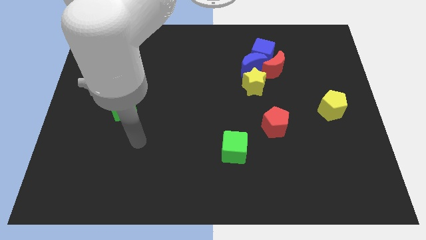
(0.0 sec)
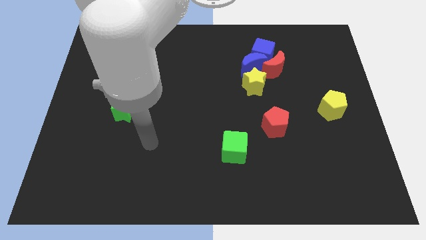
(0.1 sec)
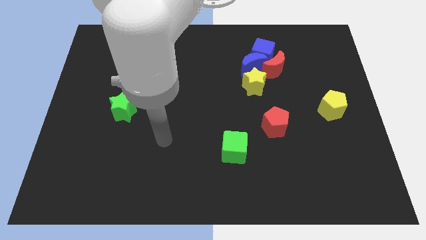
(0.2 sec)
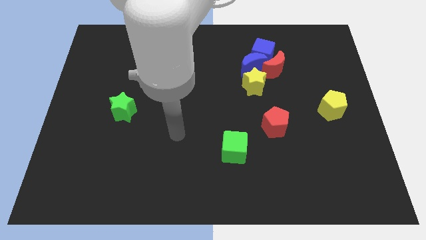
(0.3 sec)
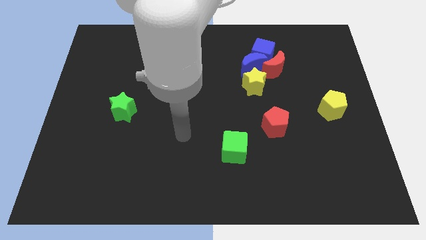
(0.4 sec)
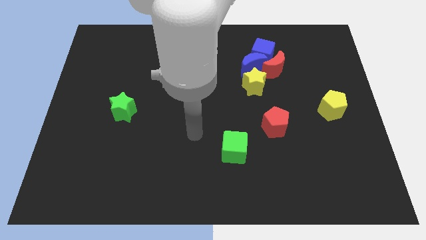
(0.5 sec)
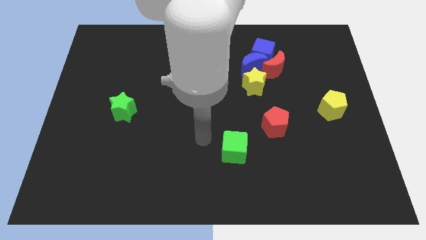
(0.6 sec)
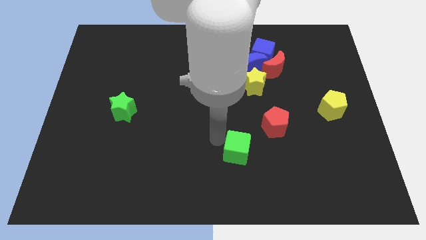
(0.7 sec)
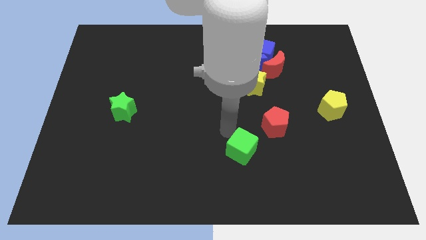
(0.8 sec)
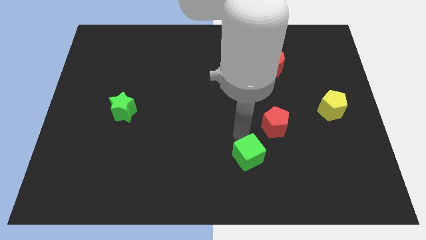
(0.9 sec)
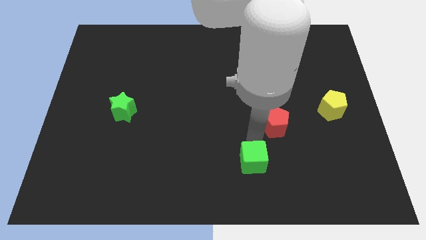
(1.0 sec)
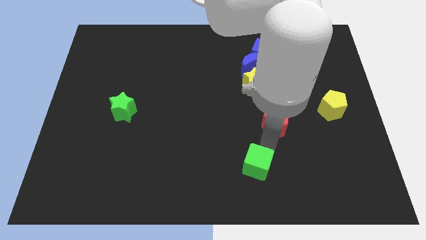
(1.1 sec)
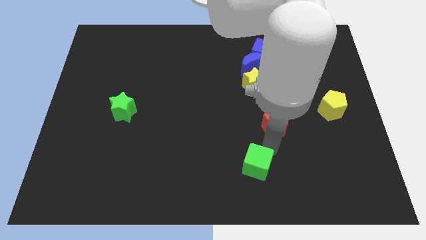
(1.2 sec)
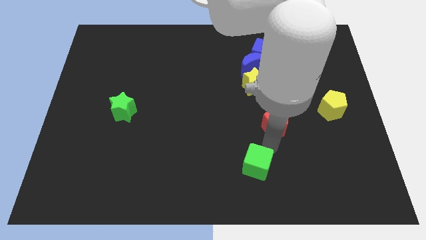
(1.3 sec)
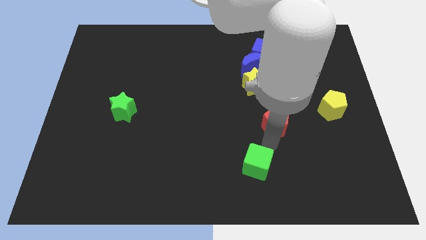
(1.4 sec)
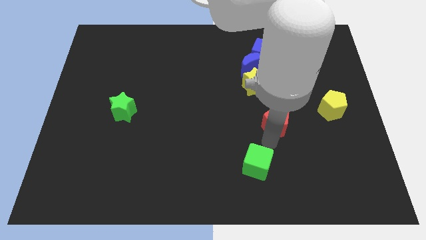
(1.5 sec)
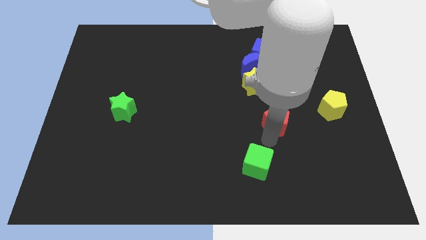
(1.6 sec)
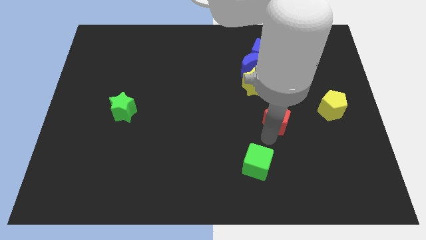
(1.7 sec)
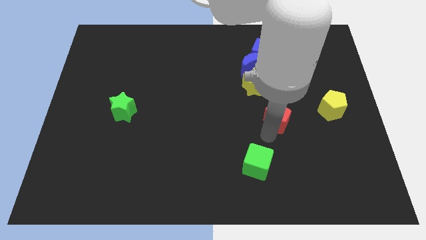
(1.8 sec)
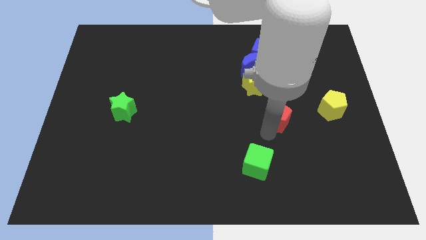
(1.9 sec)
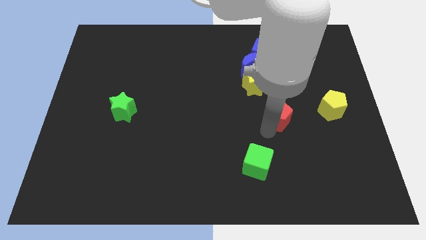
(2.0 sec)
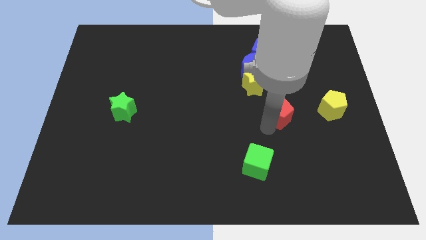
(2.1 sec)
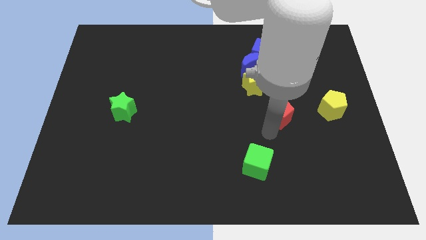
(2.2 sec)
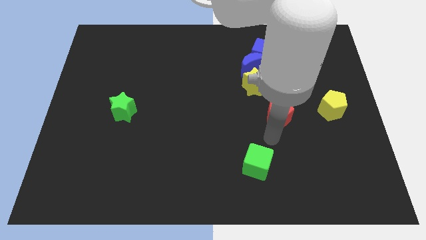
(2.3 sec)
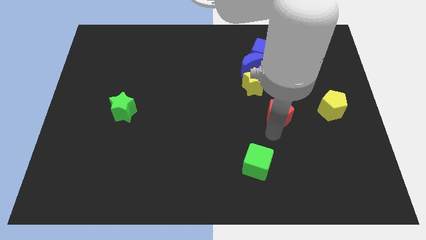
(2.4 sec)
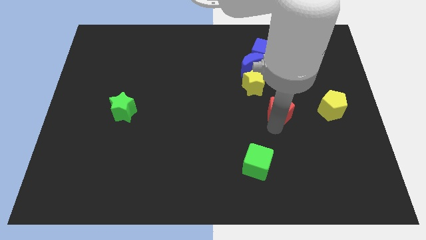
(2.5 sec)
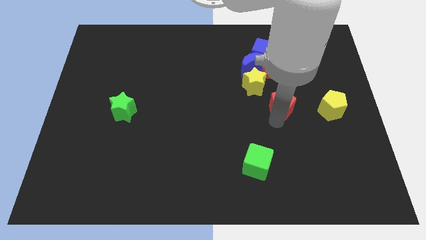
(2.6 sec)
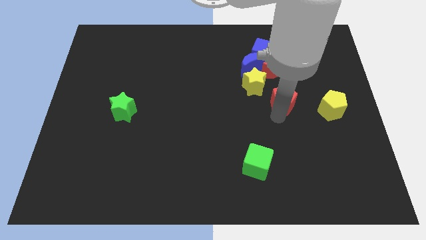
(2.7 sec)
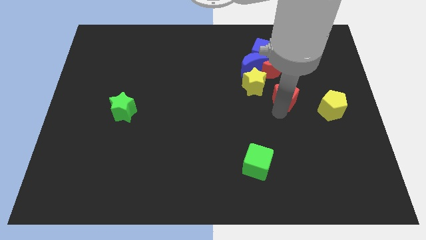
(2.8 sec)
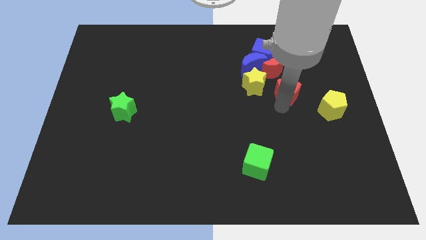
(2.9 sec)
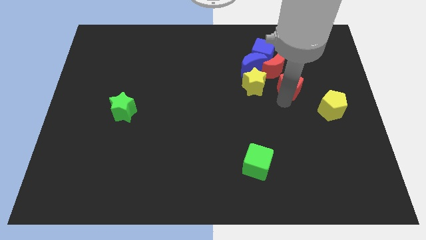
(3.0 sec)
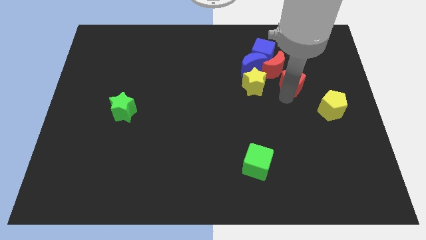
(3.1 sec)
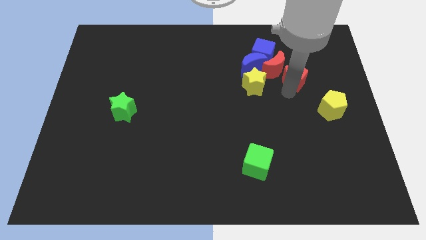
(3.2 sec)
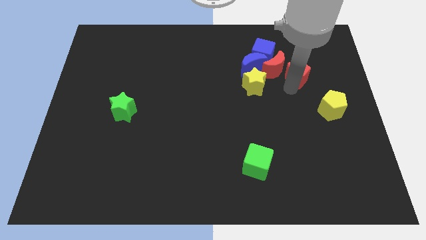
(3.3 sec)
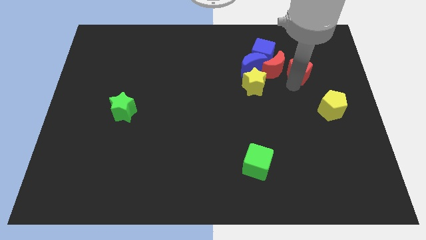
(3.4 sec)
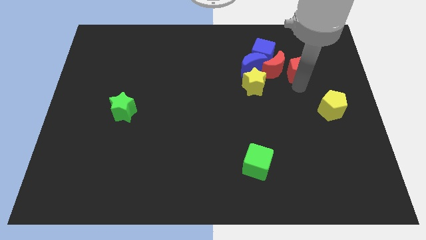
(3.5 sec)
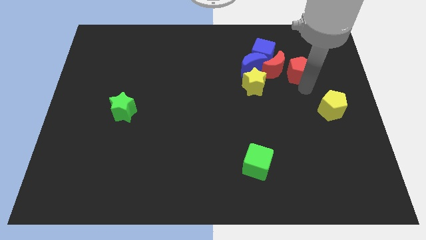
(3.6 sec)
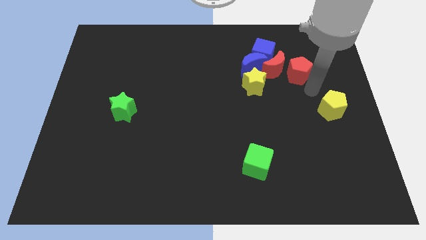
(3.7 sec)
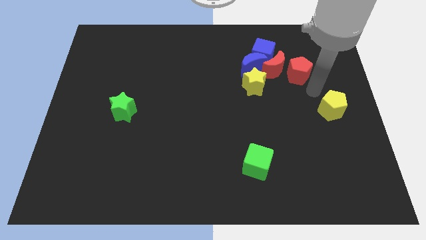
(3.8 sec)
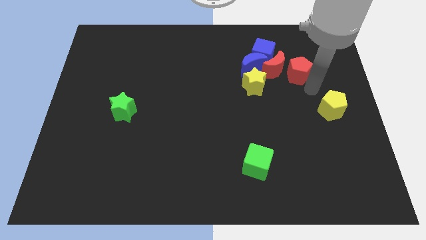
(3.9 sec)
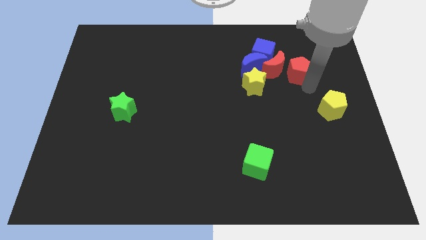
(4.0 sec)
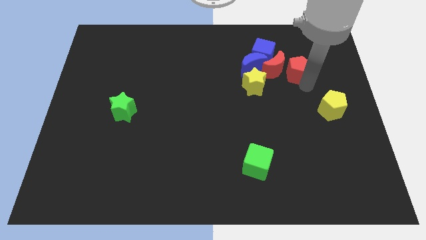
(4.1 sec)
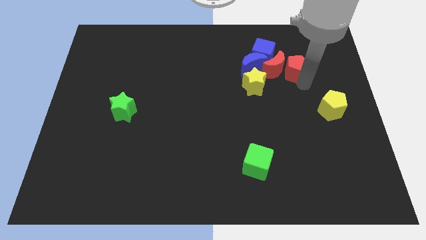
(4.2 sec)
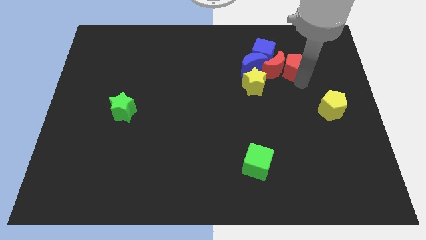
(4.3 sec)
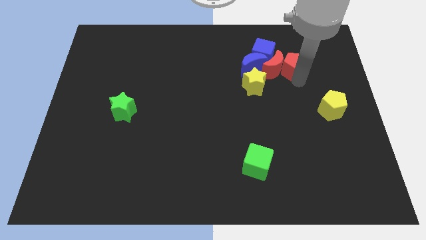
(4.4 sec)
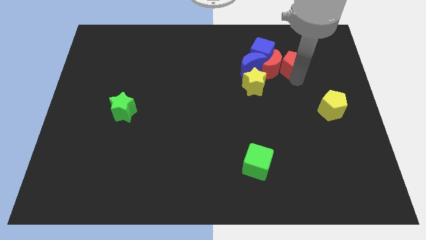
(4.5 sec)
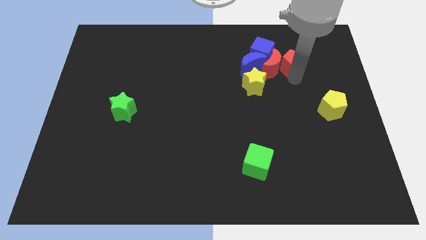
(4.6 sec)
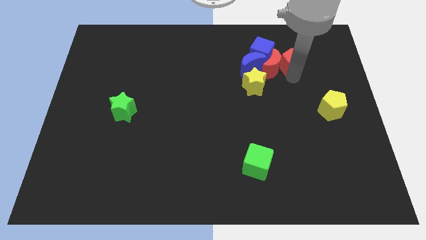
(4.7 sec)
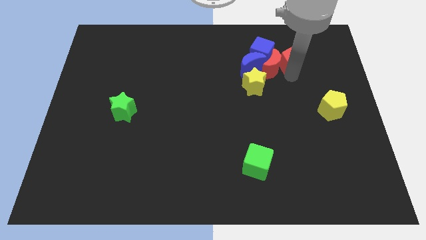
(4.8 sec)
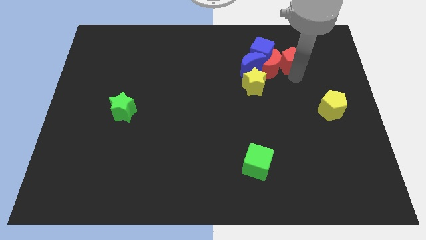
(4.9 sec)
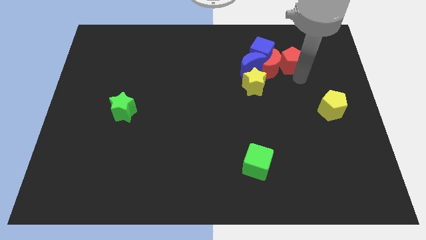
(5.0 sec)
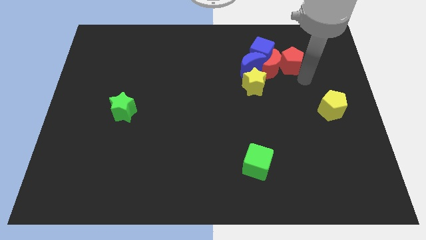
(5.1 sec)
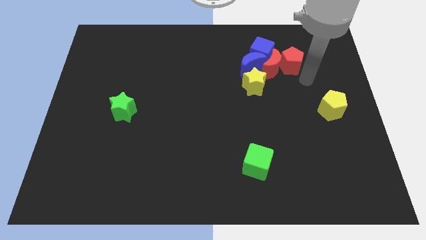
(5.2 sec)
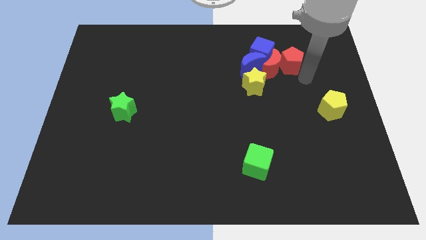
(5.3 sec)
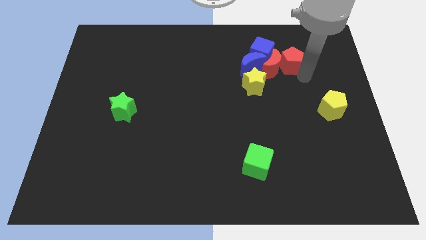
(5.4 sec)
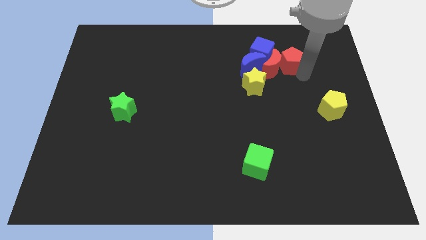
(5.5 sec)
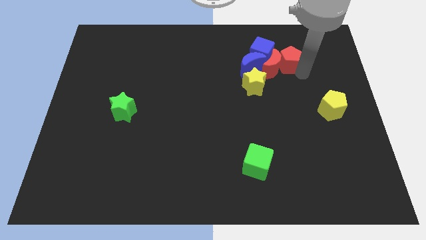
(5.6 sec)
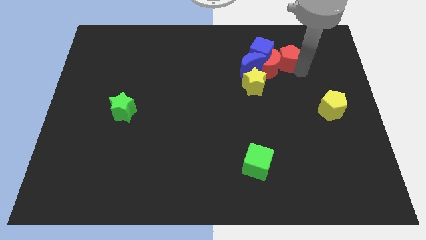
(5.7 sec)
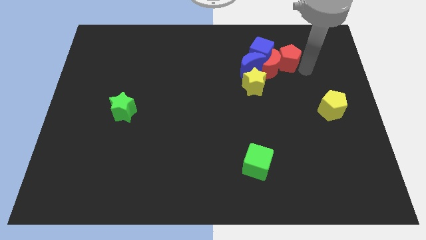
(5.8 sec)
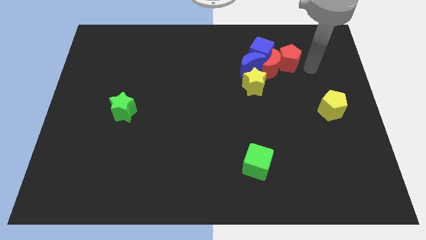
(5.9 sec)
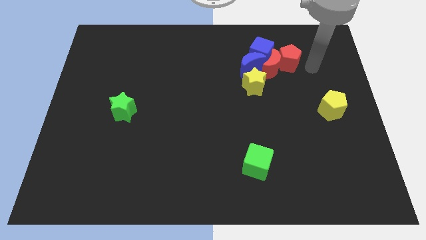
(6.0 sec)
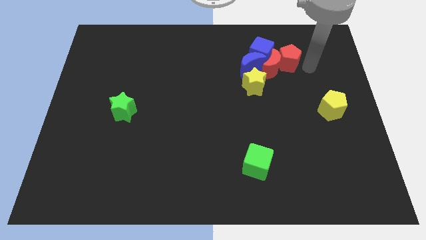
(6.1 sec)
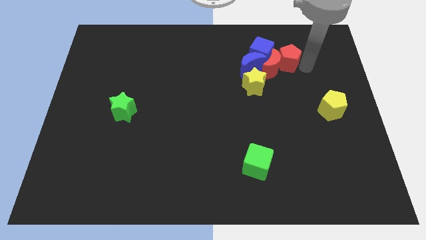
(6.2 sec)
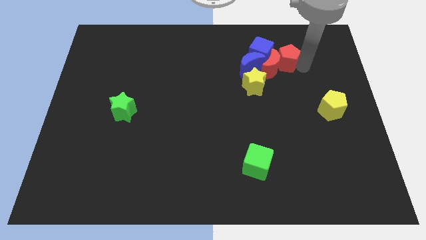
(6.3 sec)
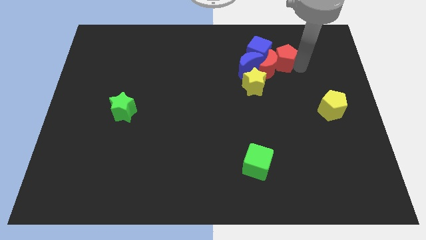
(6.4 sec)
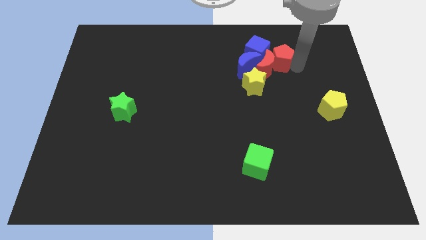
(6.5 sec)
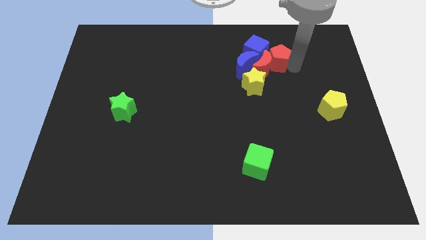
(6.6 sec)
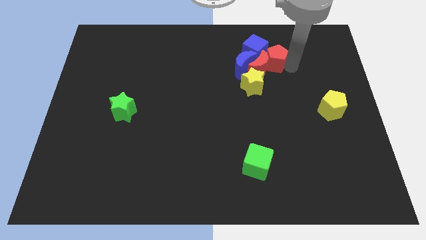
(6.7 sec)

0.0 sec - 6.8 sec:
push the red pentagon close to the blue cube
